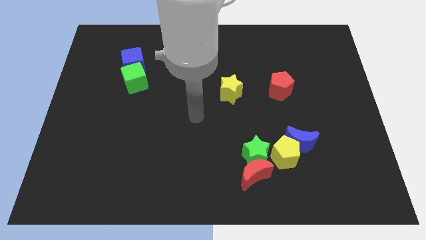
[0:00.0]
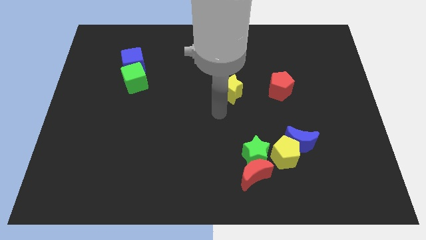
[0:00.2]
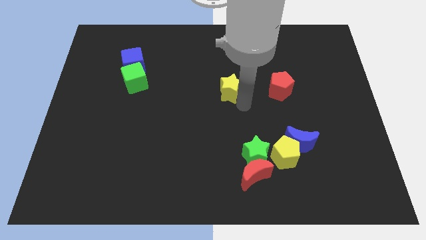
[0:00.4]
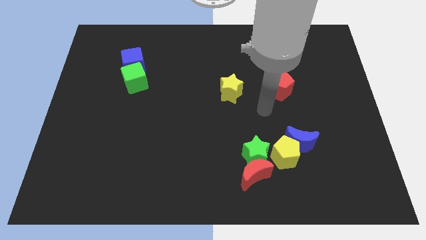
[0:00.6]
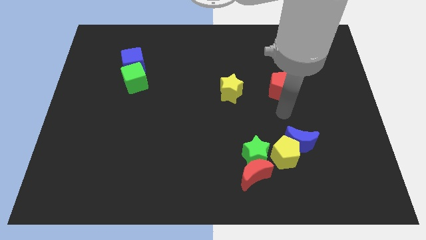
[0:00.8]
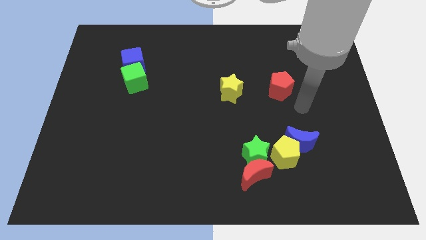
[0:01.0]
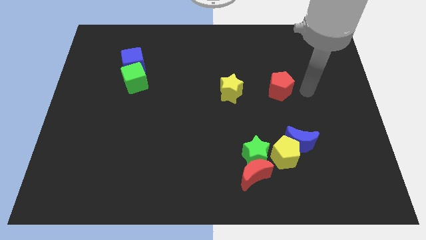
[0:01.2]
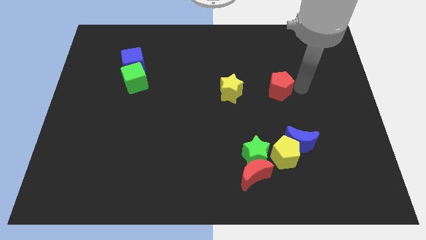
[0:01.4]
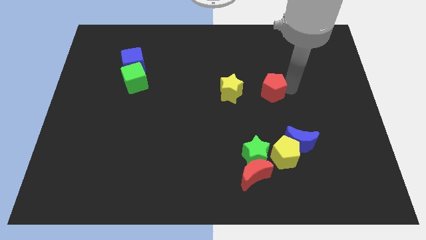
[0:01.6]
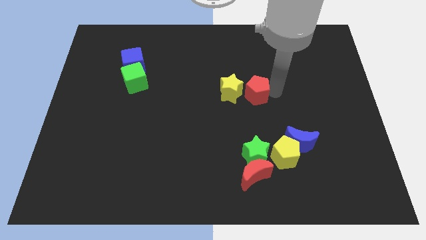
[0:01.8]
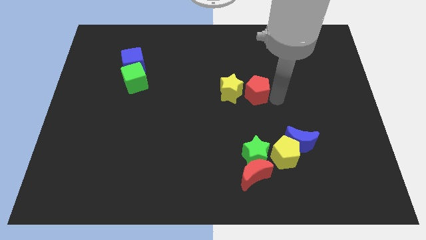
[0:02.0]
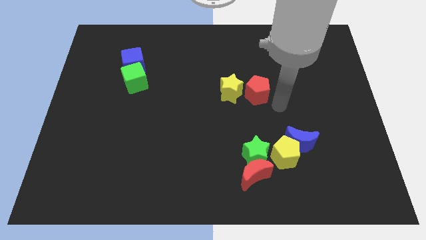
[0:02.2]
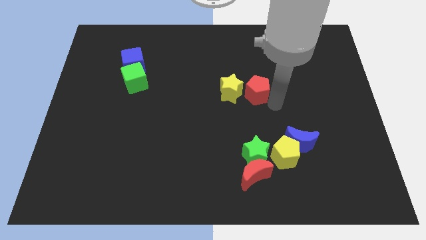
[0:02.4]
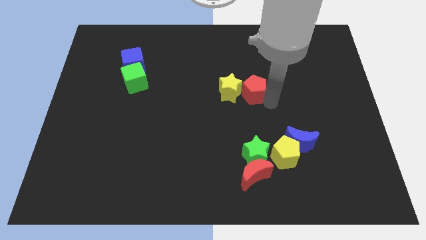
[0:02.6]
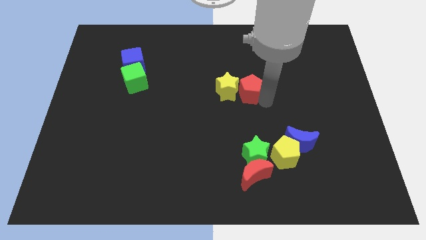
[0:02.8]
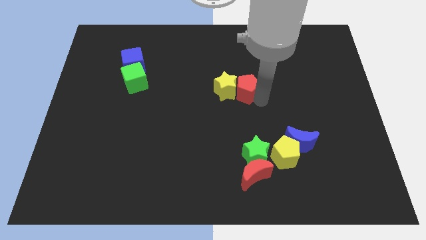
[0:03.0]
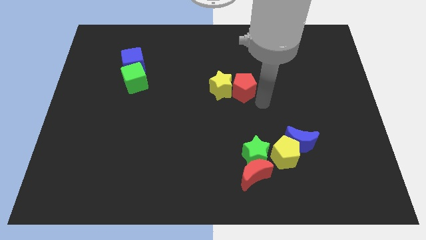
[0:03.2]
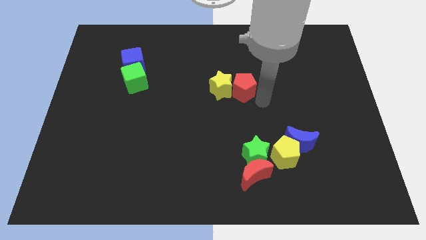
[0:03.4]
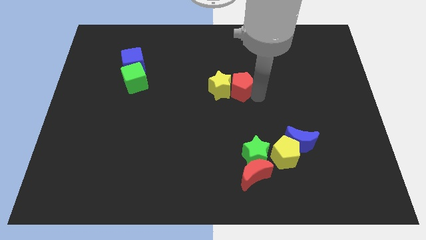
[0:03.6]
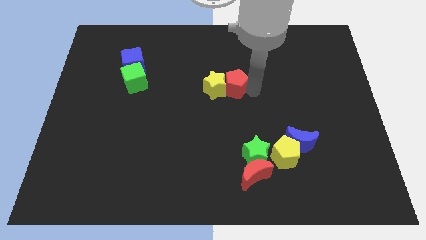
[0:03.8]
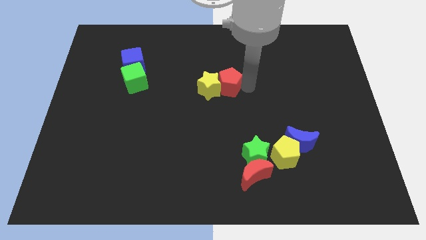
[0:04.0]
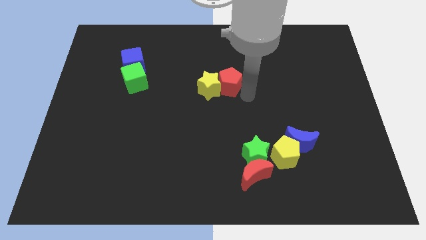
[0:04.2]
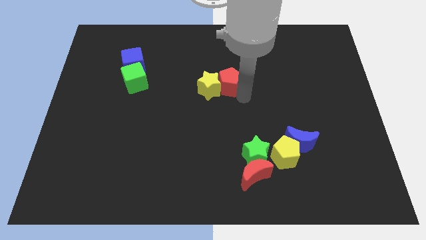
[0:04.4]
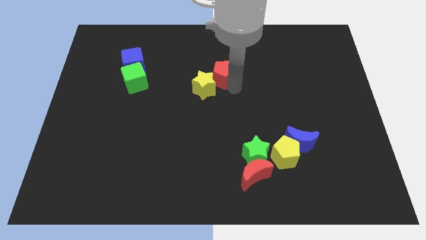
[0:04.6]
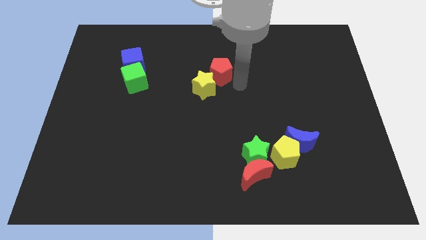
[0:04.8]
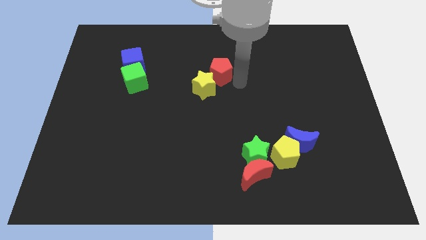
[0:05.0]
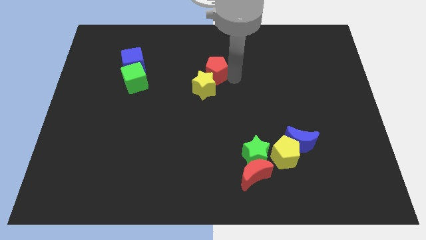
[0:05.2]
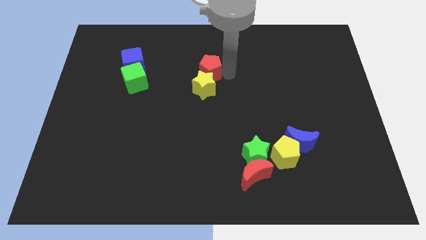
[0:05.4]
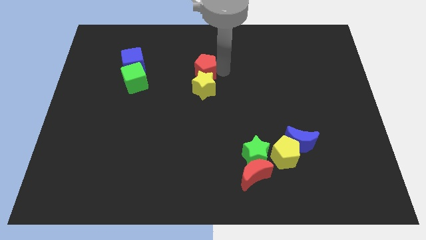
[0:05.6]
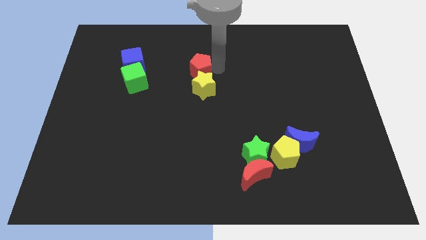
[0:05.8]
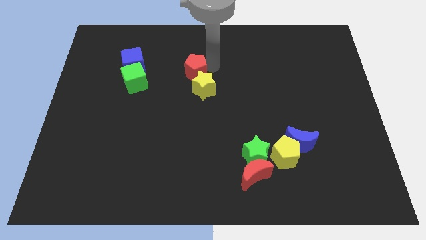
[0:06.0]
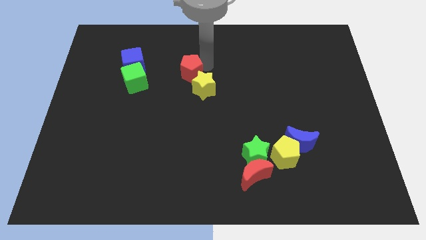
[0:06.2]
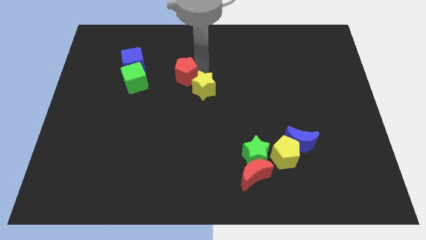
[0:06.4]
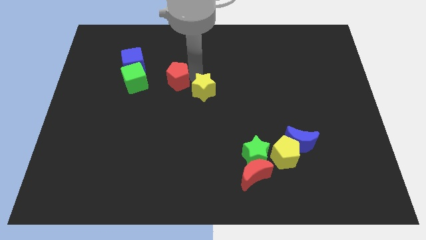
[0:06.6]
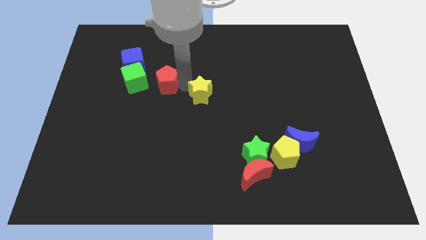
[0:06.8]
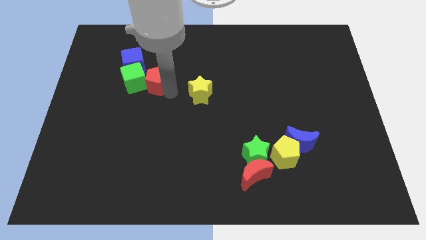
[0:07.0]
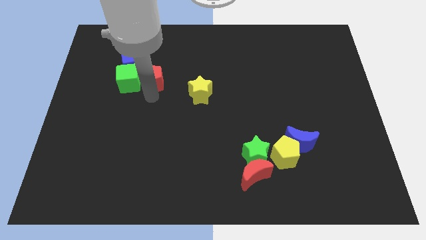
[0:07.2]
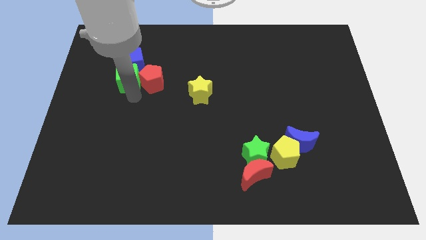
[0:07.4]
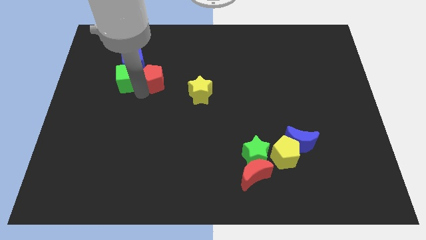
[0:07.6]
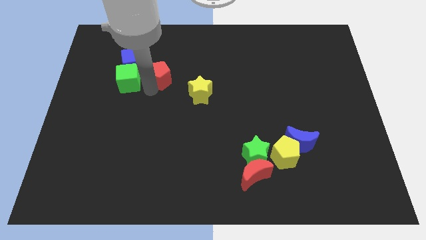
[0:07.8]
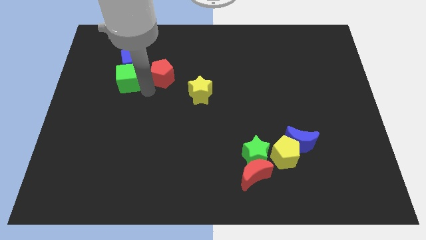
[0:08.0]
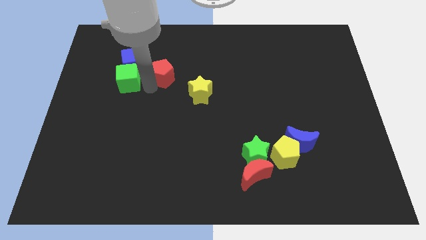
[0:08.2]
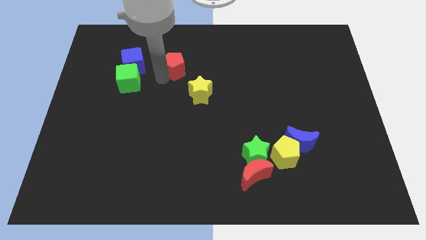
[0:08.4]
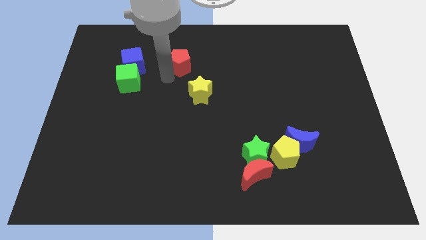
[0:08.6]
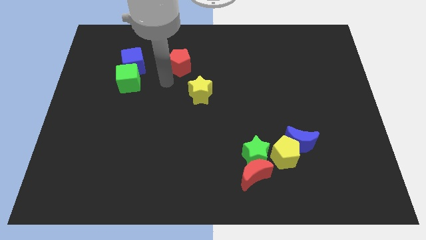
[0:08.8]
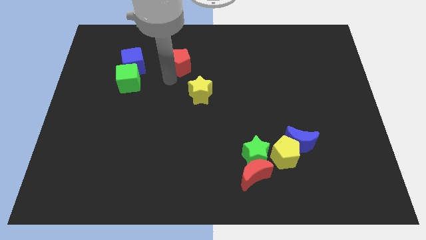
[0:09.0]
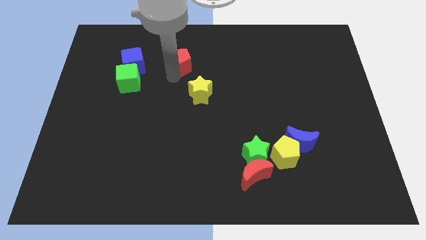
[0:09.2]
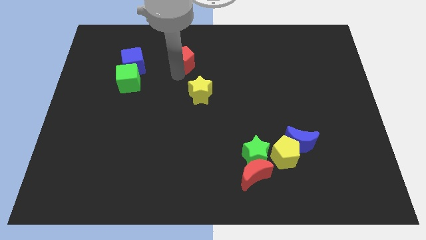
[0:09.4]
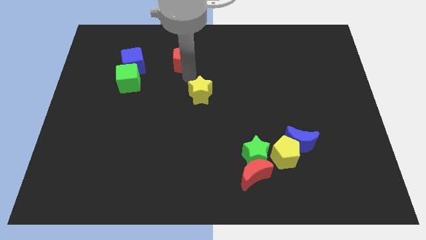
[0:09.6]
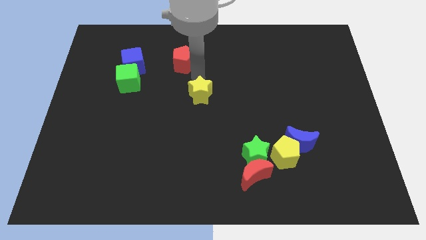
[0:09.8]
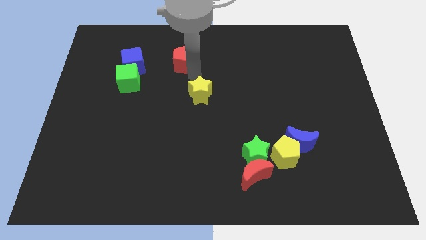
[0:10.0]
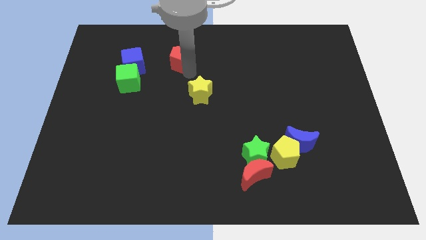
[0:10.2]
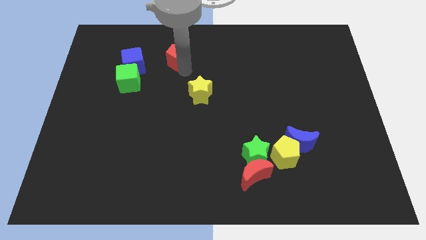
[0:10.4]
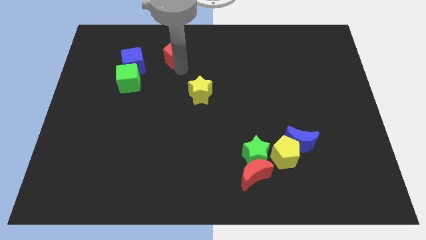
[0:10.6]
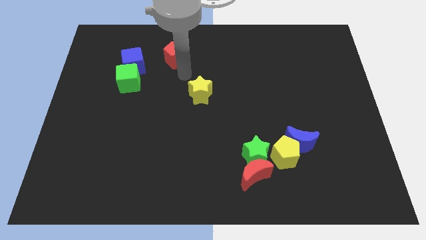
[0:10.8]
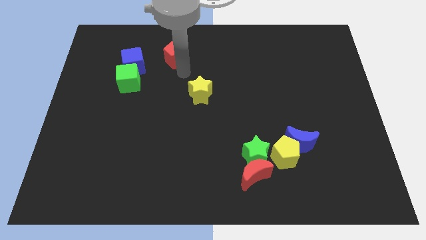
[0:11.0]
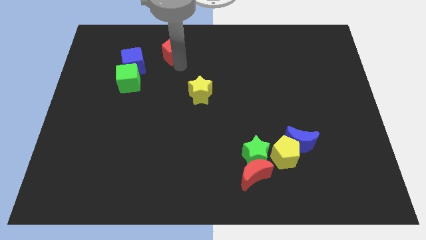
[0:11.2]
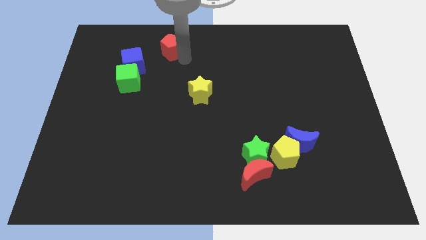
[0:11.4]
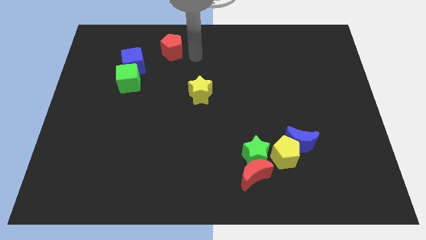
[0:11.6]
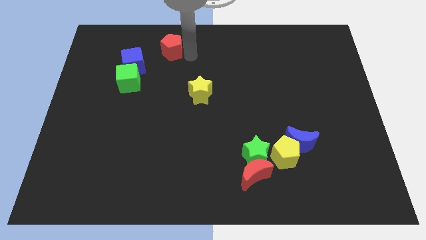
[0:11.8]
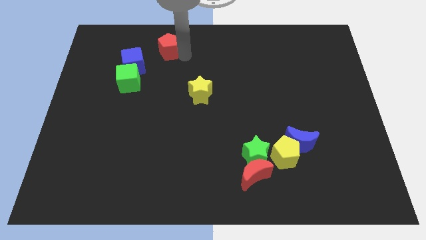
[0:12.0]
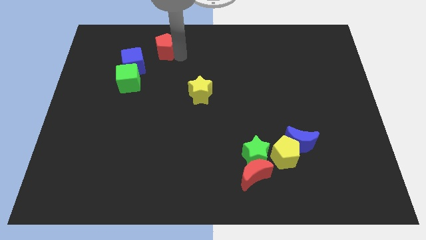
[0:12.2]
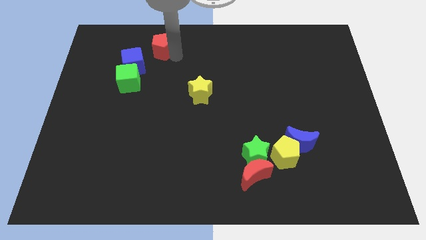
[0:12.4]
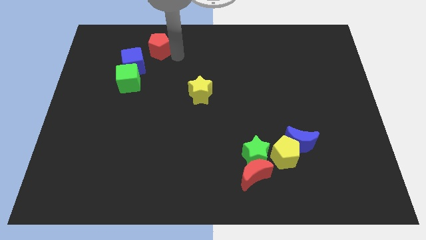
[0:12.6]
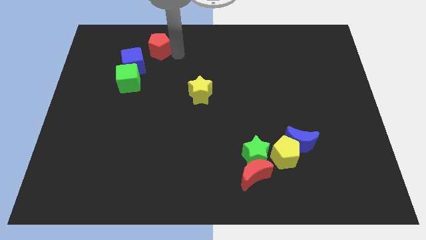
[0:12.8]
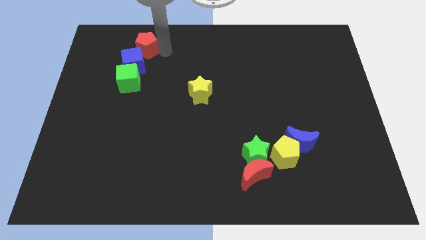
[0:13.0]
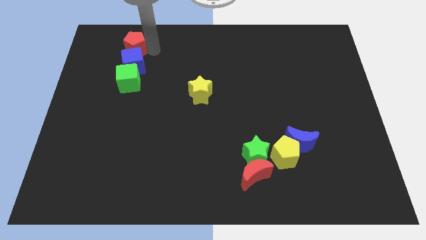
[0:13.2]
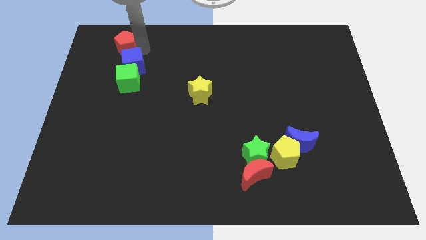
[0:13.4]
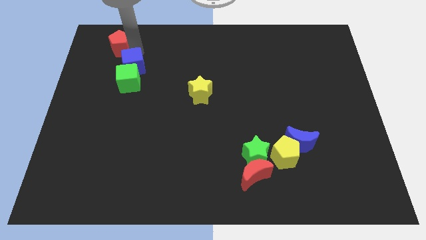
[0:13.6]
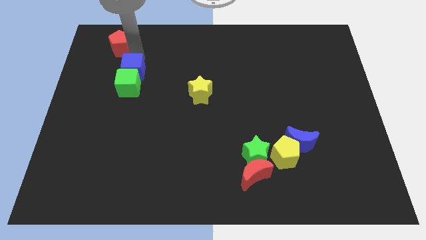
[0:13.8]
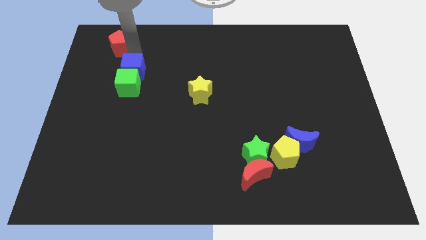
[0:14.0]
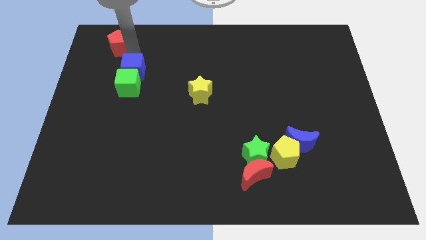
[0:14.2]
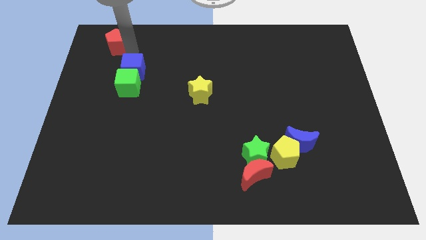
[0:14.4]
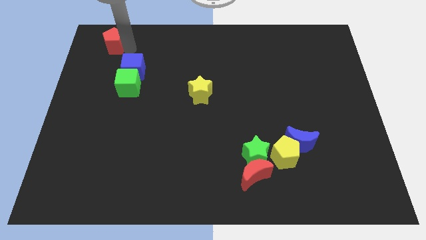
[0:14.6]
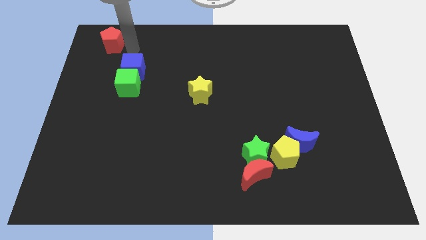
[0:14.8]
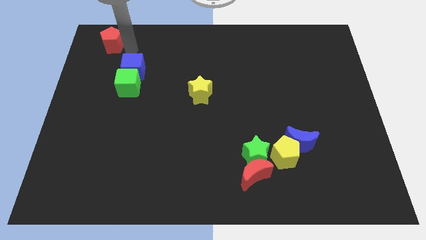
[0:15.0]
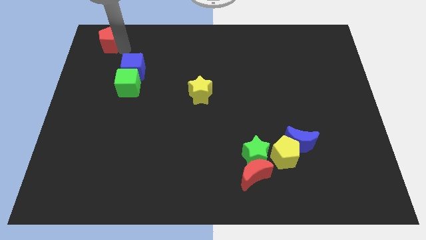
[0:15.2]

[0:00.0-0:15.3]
slide the red pentagon to the top left corner

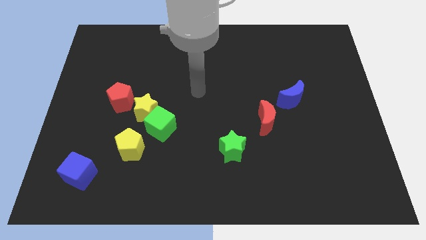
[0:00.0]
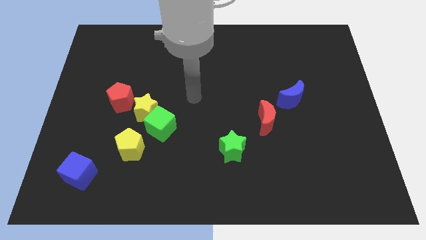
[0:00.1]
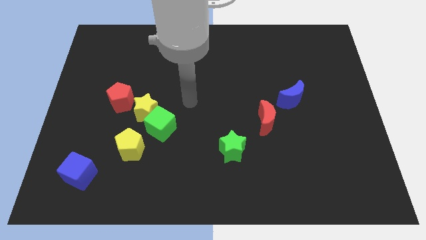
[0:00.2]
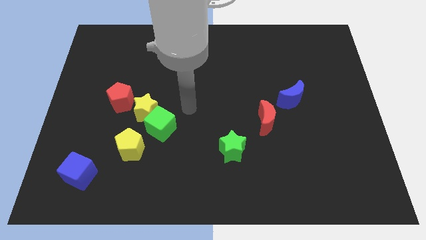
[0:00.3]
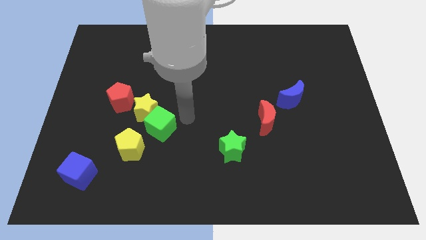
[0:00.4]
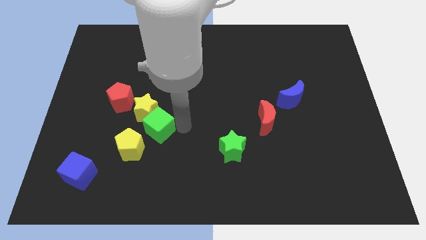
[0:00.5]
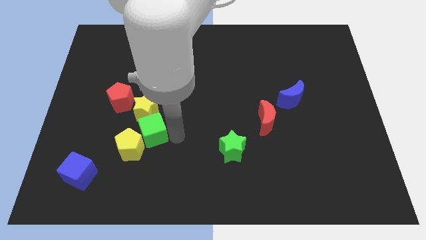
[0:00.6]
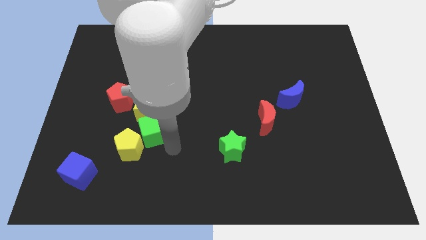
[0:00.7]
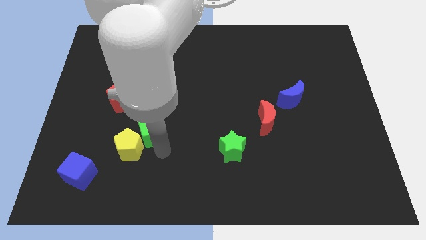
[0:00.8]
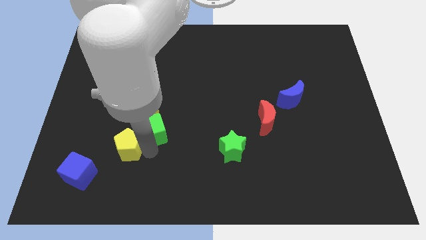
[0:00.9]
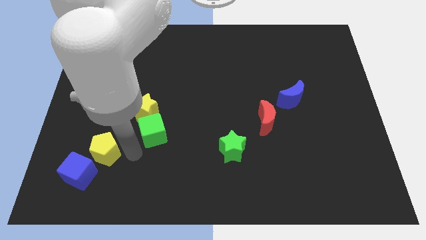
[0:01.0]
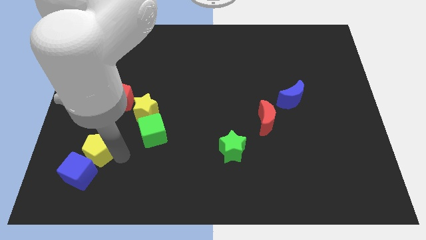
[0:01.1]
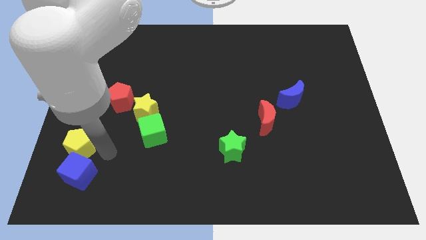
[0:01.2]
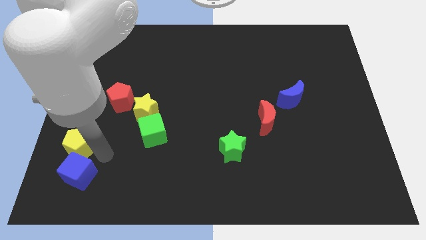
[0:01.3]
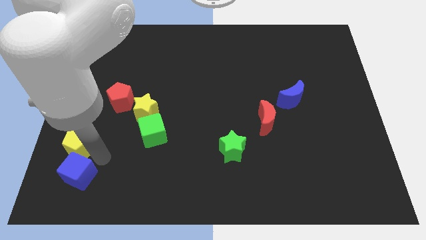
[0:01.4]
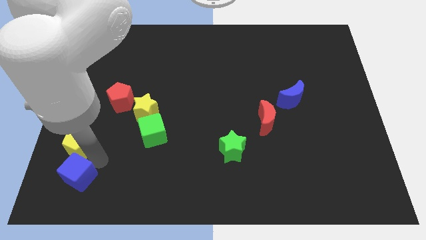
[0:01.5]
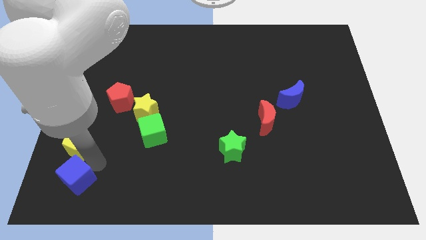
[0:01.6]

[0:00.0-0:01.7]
move the blue cube to the bottom left
